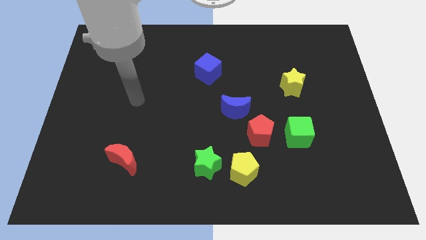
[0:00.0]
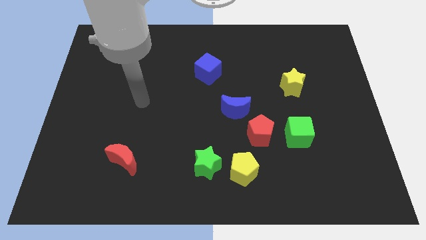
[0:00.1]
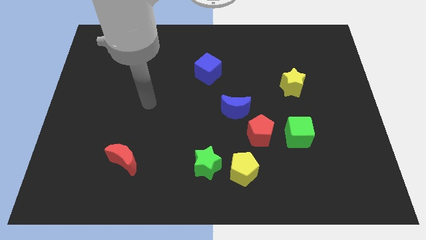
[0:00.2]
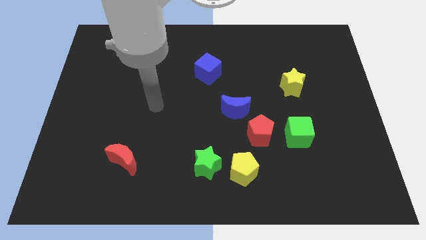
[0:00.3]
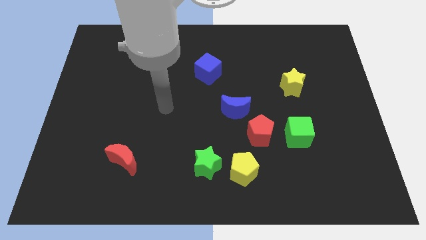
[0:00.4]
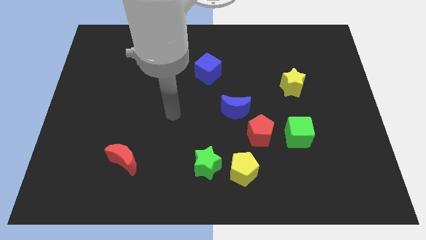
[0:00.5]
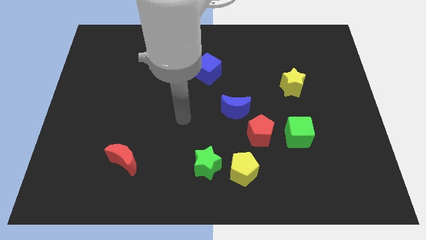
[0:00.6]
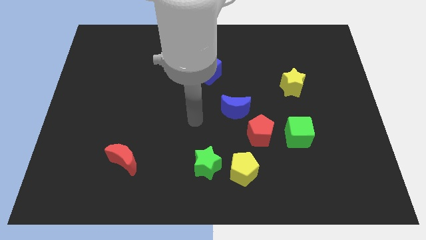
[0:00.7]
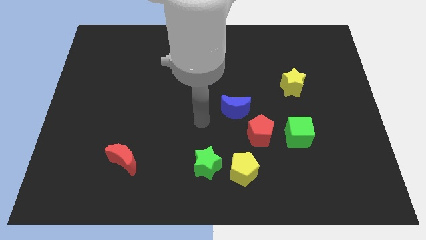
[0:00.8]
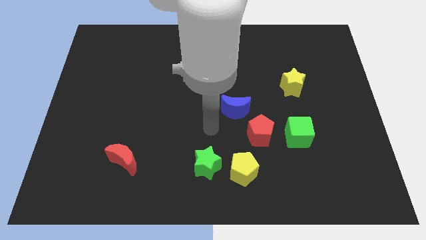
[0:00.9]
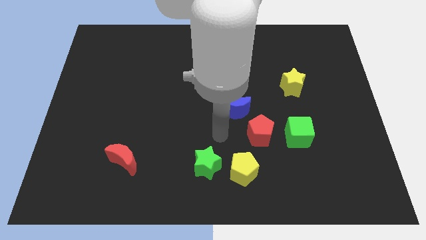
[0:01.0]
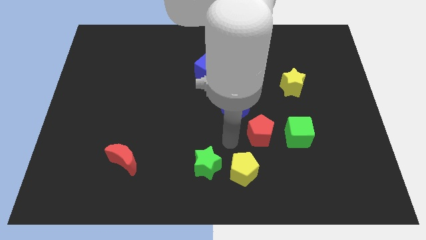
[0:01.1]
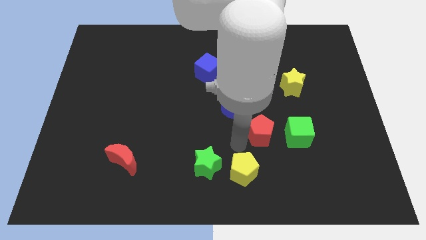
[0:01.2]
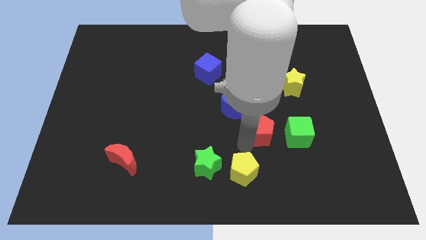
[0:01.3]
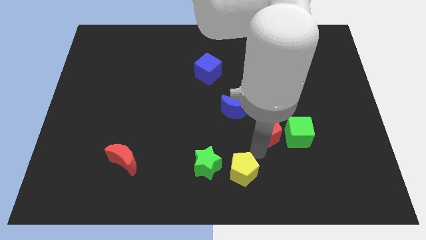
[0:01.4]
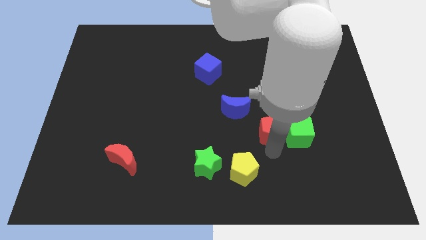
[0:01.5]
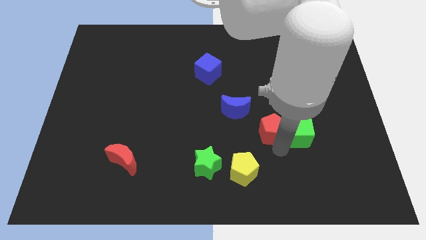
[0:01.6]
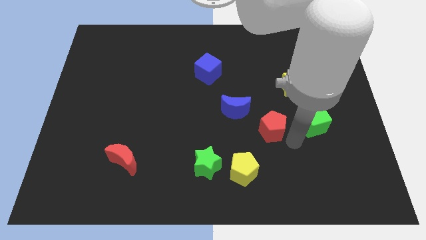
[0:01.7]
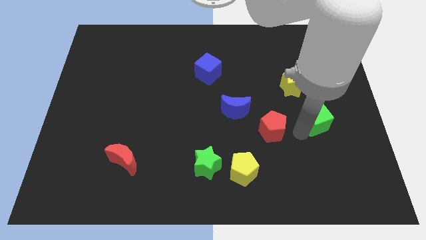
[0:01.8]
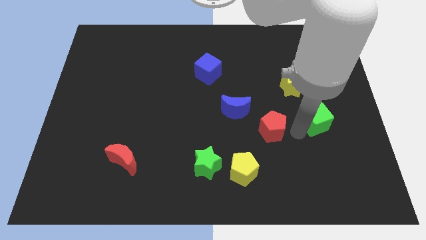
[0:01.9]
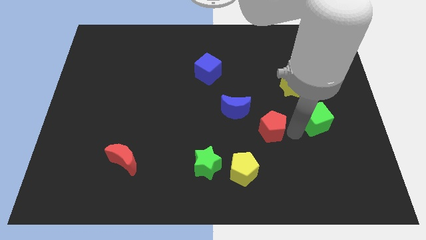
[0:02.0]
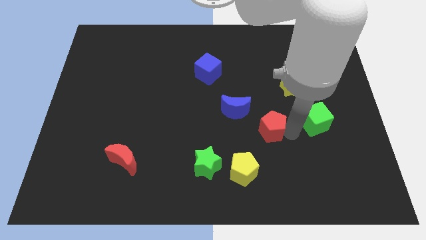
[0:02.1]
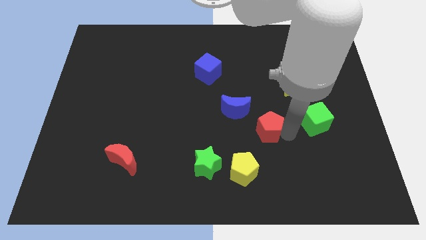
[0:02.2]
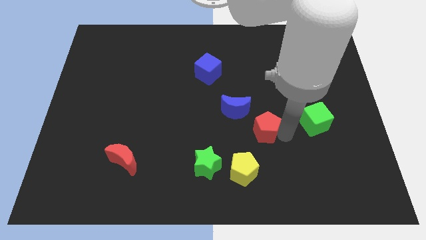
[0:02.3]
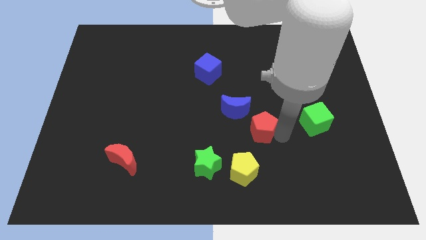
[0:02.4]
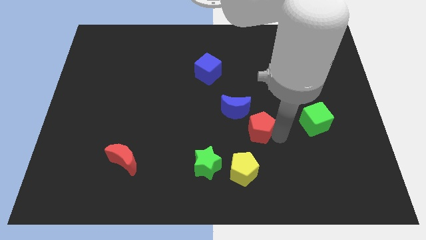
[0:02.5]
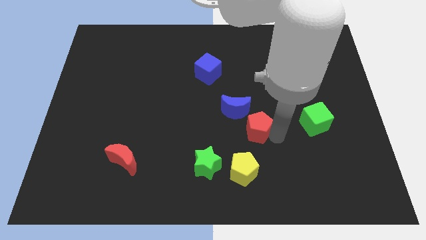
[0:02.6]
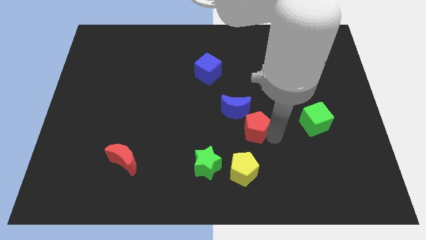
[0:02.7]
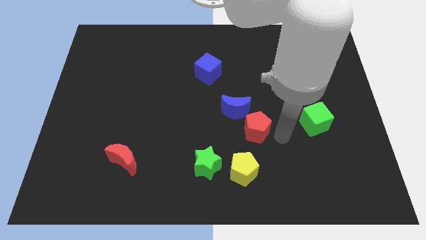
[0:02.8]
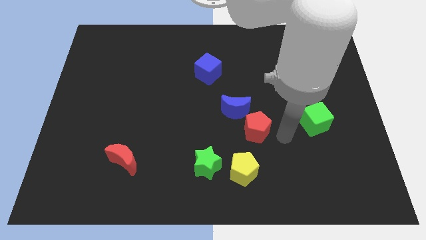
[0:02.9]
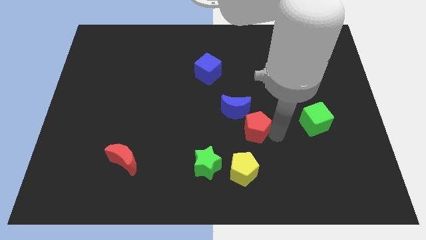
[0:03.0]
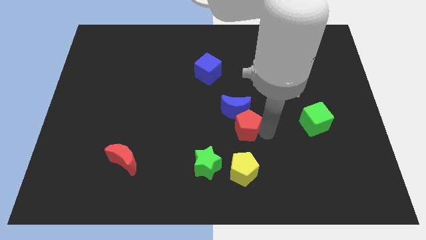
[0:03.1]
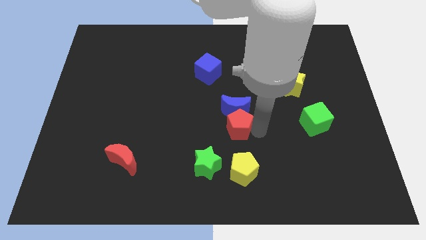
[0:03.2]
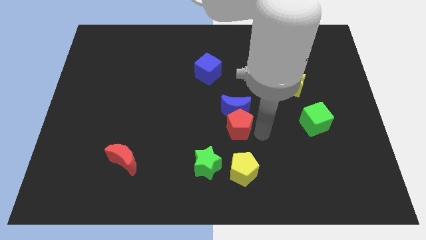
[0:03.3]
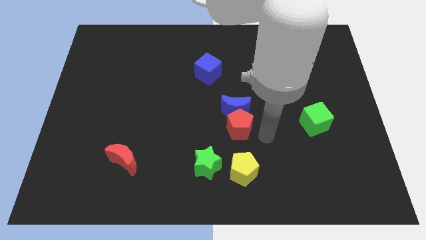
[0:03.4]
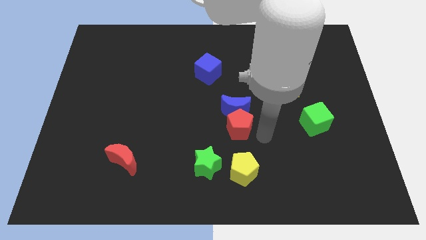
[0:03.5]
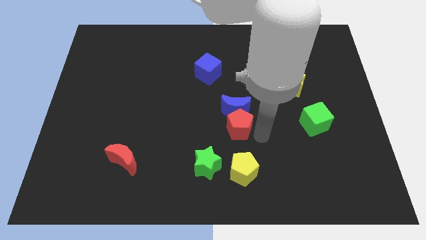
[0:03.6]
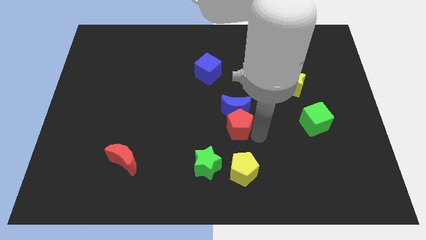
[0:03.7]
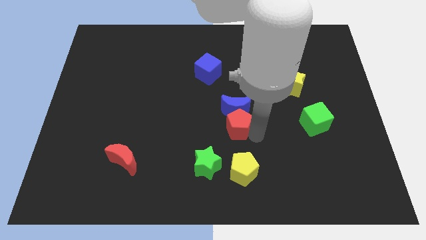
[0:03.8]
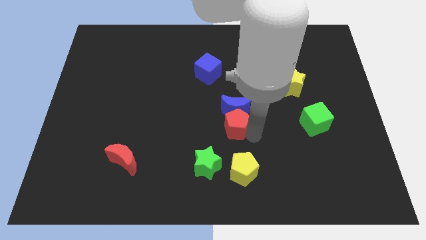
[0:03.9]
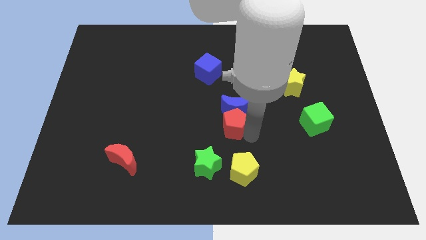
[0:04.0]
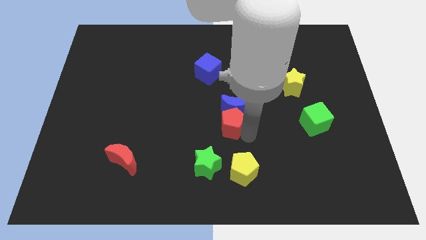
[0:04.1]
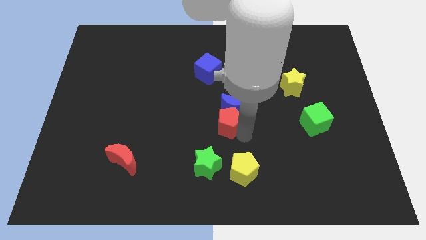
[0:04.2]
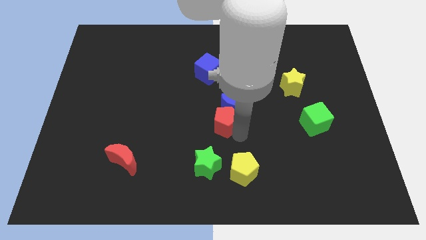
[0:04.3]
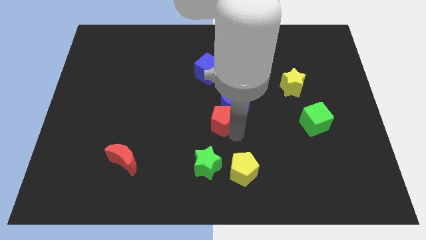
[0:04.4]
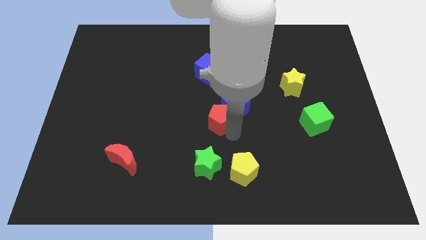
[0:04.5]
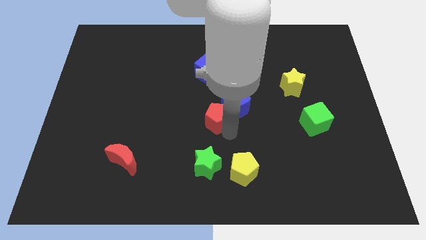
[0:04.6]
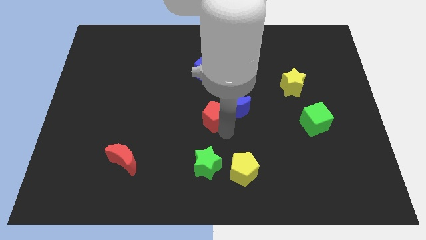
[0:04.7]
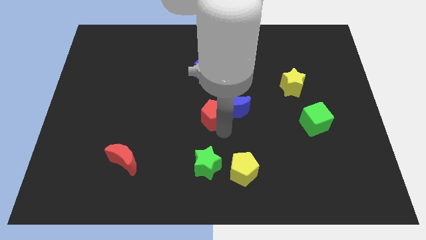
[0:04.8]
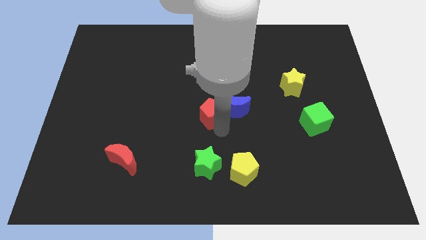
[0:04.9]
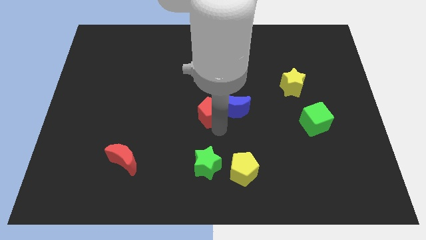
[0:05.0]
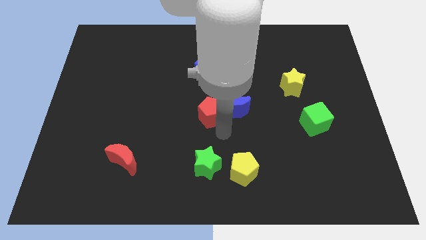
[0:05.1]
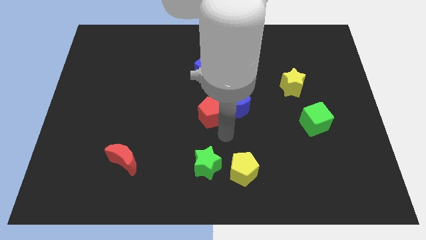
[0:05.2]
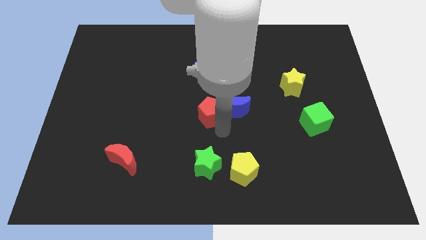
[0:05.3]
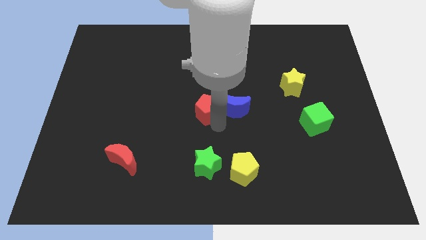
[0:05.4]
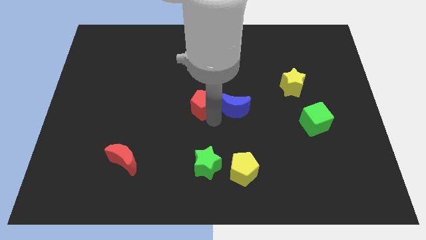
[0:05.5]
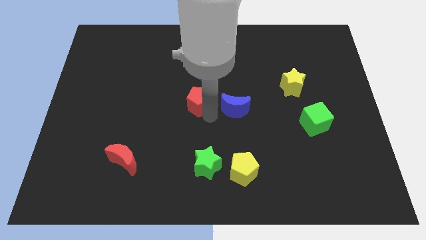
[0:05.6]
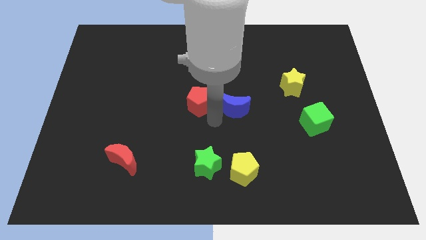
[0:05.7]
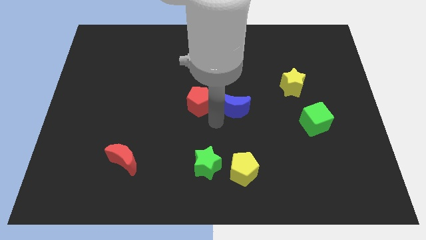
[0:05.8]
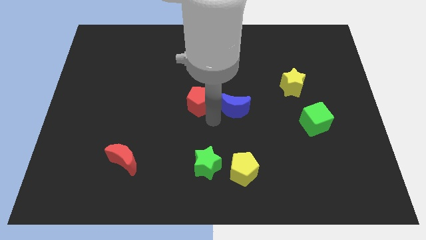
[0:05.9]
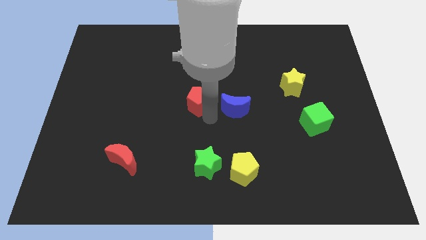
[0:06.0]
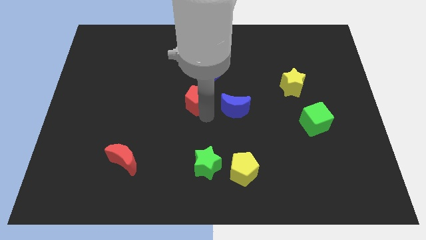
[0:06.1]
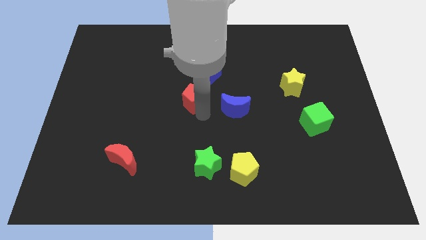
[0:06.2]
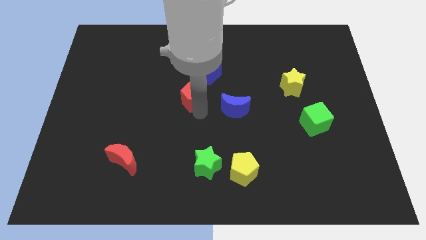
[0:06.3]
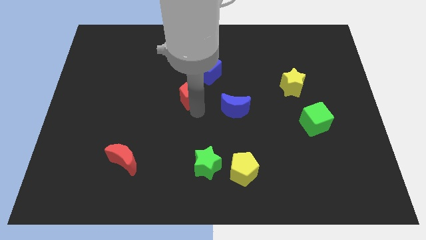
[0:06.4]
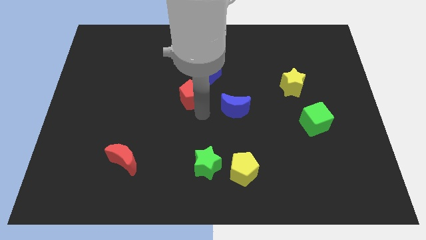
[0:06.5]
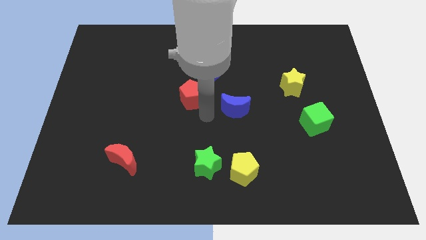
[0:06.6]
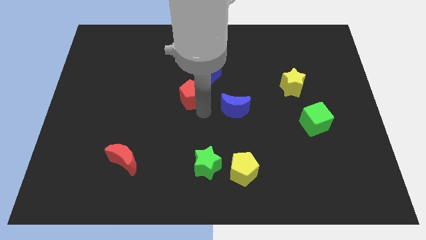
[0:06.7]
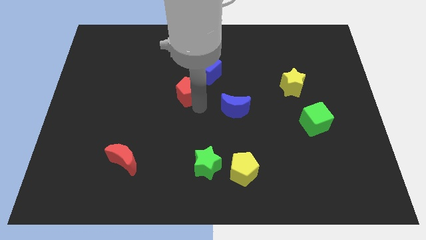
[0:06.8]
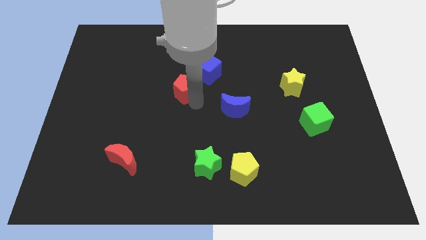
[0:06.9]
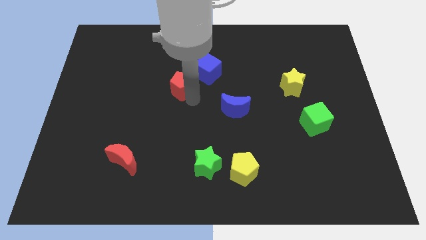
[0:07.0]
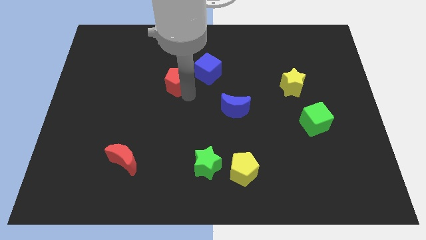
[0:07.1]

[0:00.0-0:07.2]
push the red pentagon just left of the blue cube
